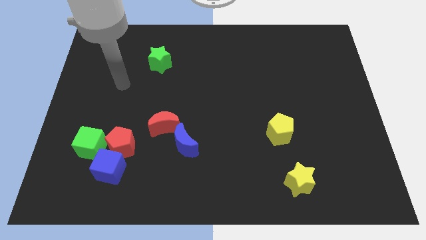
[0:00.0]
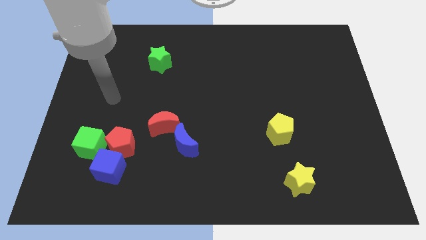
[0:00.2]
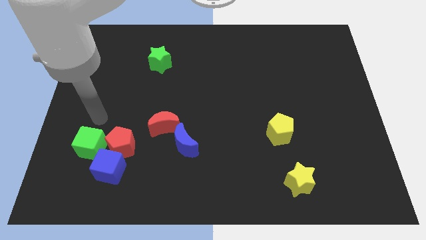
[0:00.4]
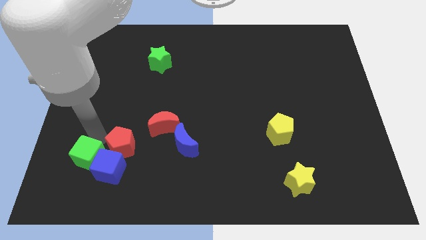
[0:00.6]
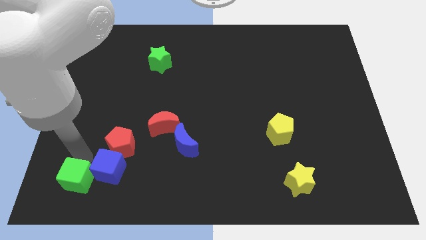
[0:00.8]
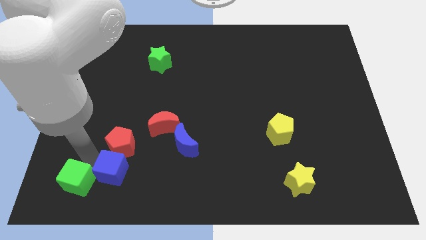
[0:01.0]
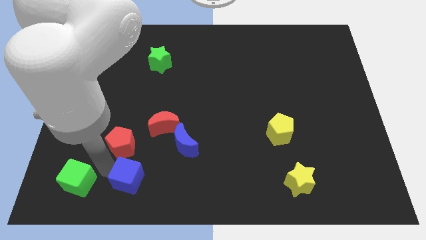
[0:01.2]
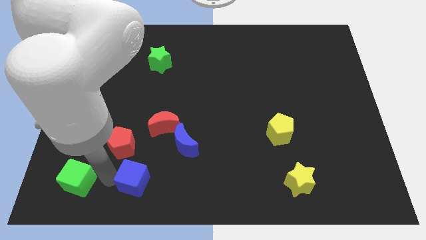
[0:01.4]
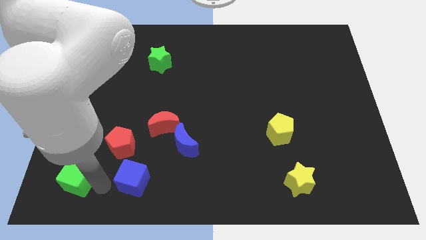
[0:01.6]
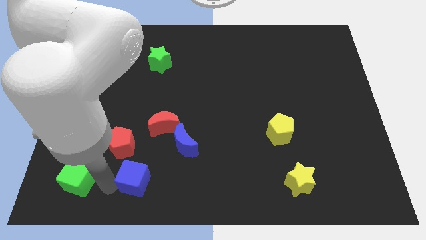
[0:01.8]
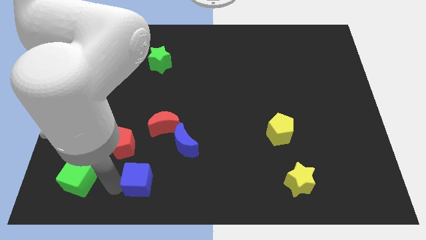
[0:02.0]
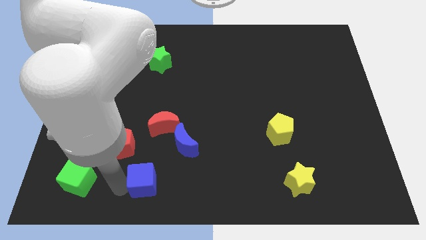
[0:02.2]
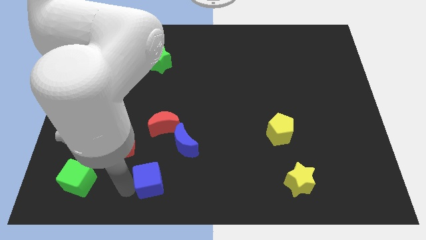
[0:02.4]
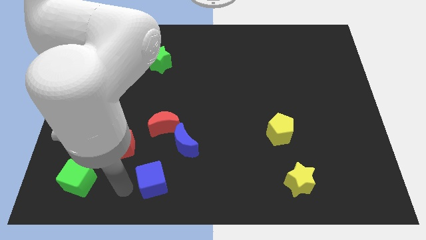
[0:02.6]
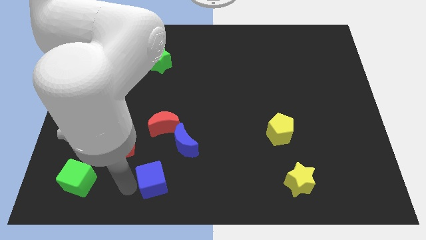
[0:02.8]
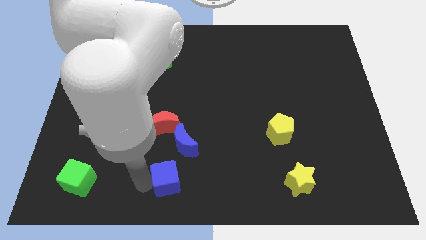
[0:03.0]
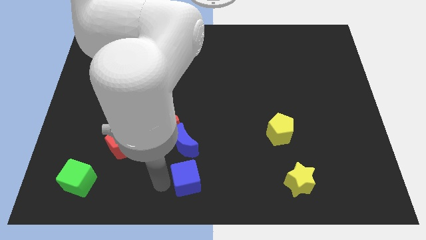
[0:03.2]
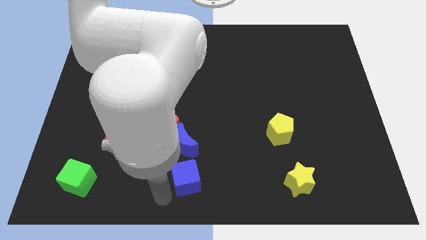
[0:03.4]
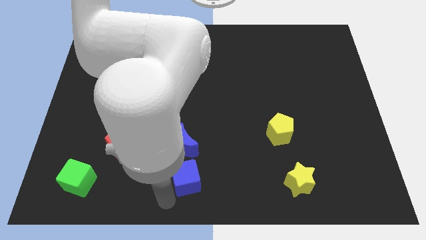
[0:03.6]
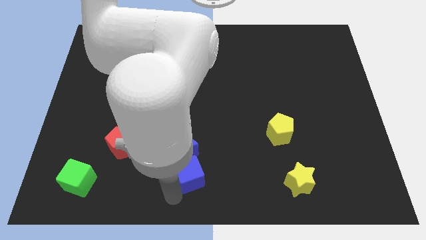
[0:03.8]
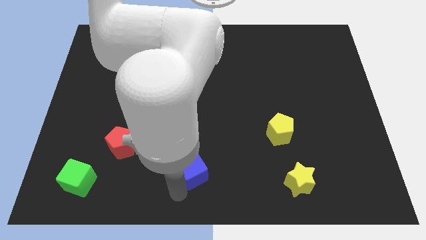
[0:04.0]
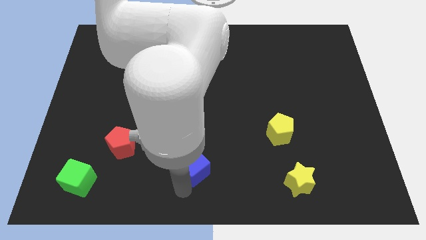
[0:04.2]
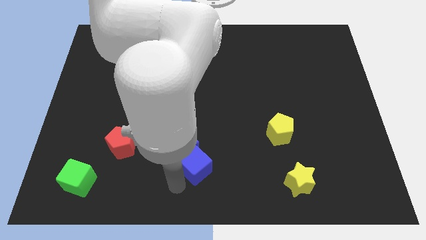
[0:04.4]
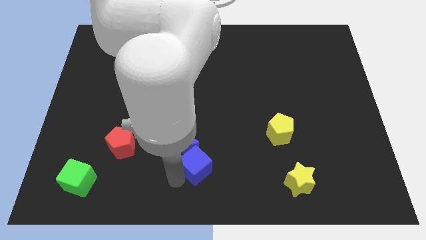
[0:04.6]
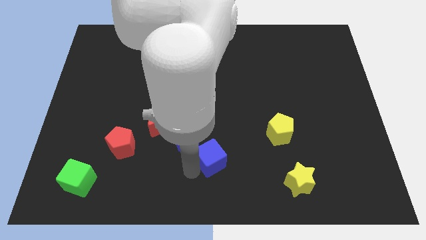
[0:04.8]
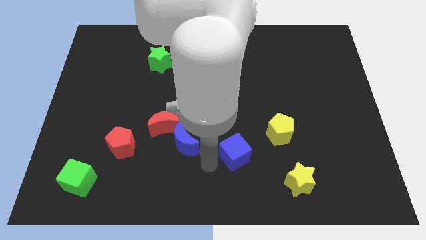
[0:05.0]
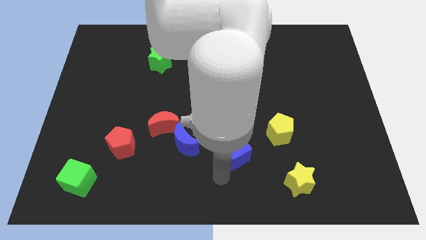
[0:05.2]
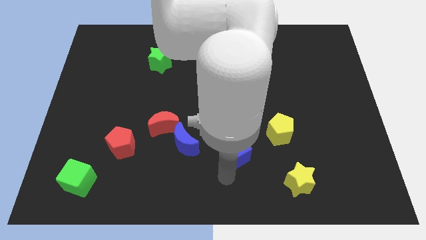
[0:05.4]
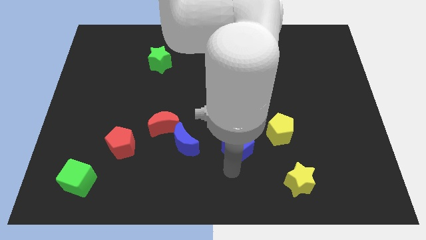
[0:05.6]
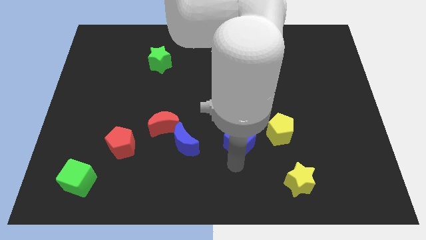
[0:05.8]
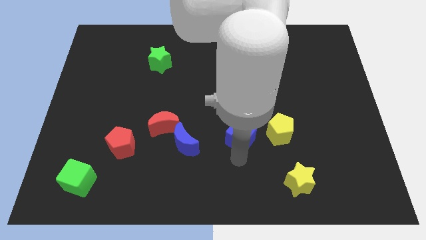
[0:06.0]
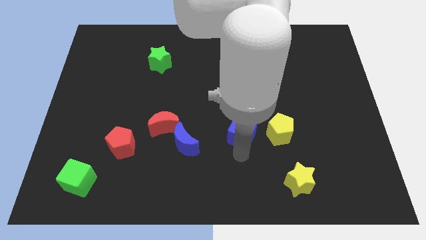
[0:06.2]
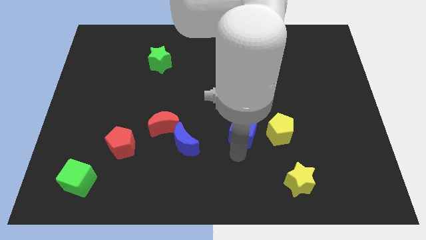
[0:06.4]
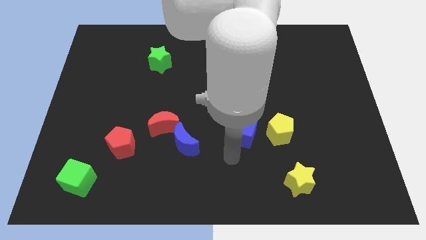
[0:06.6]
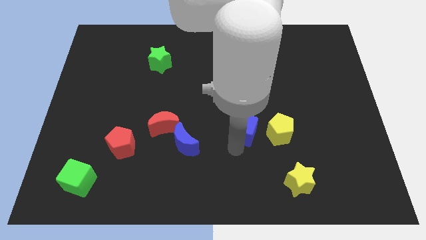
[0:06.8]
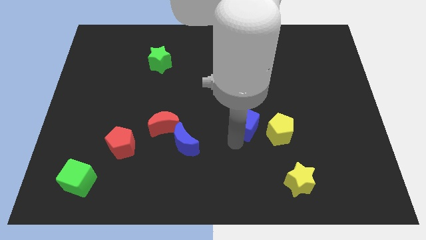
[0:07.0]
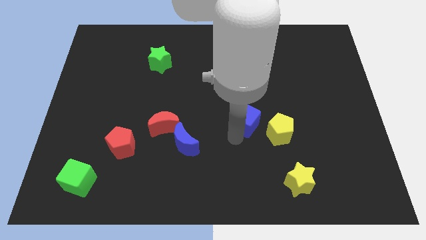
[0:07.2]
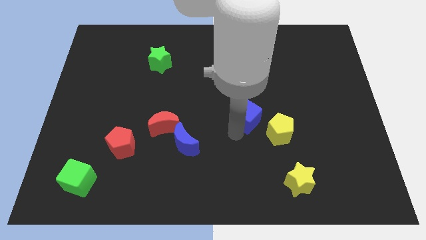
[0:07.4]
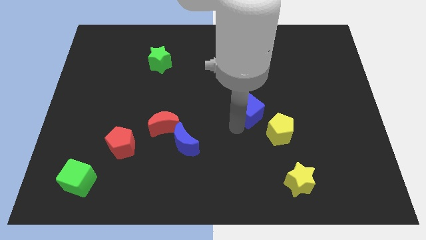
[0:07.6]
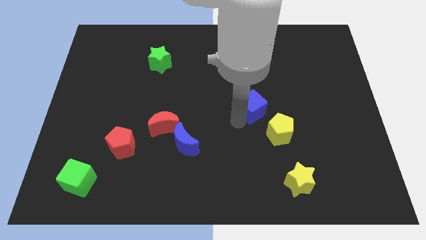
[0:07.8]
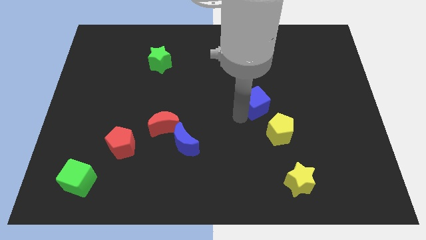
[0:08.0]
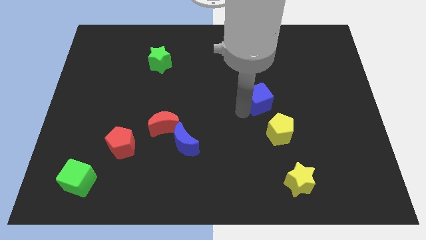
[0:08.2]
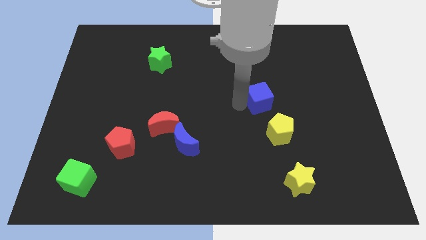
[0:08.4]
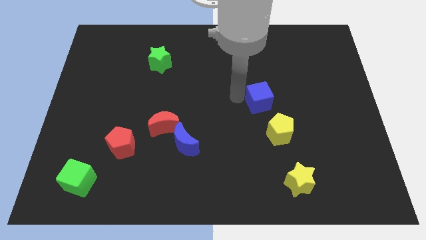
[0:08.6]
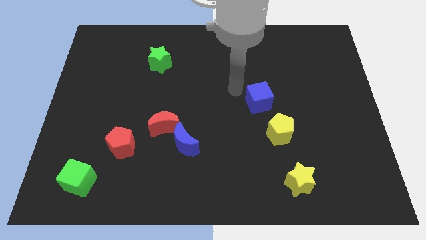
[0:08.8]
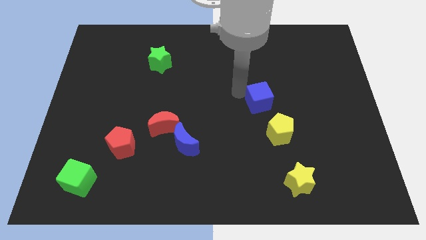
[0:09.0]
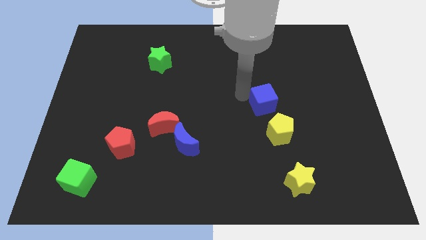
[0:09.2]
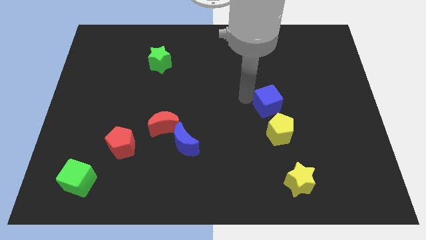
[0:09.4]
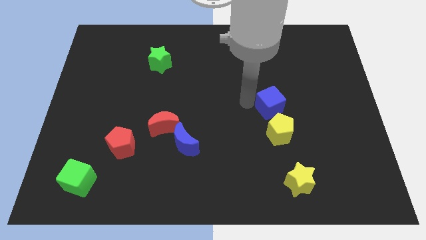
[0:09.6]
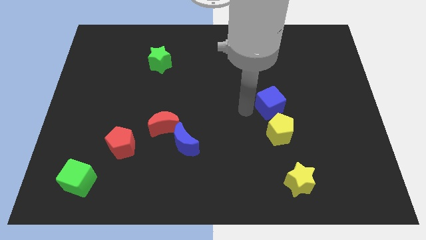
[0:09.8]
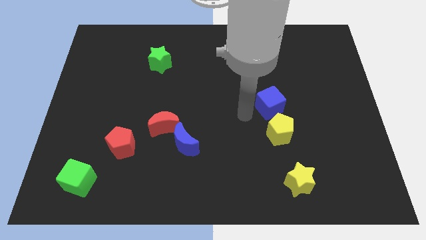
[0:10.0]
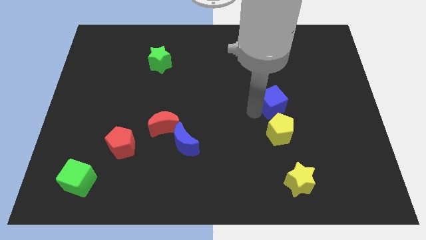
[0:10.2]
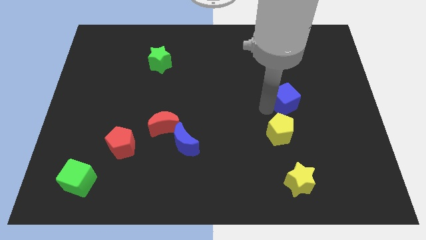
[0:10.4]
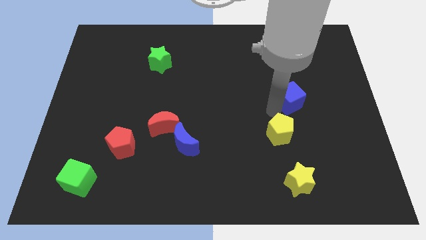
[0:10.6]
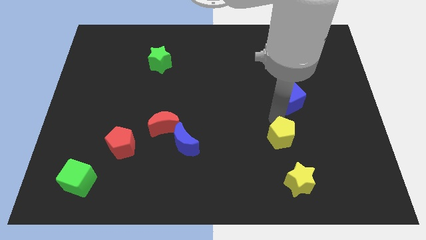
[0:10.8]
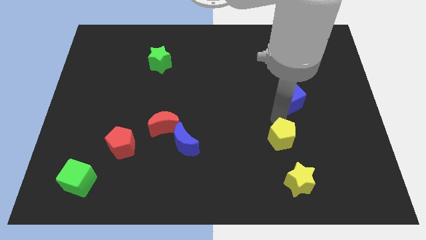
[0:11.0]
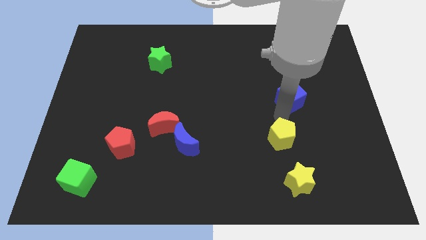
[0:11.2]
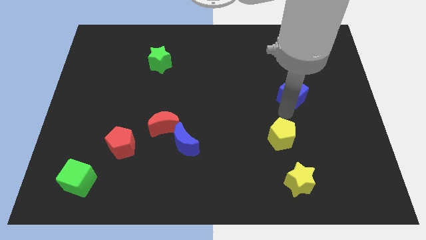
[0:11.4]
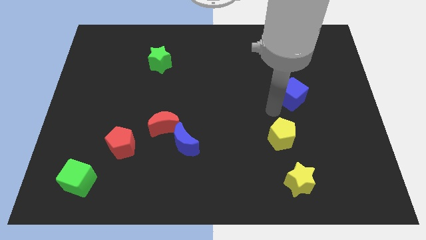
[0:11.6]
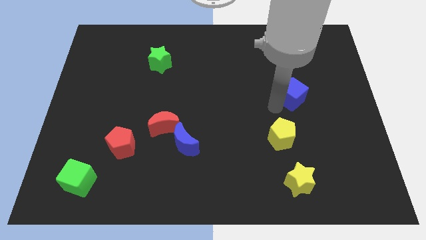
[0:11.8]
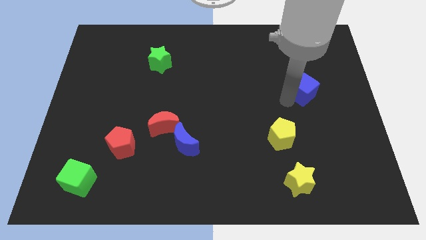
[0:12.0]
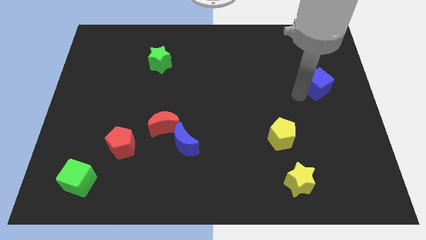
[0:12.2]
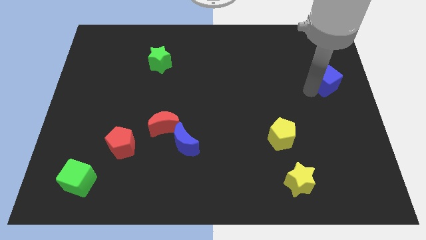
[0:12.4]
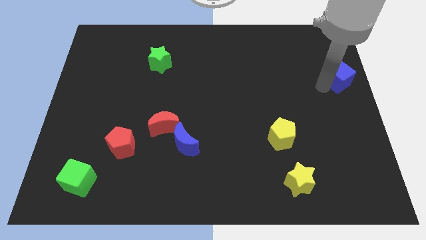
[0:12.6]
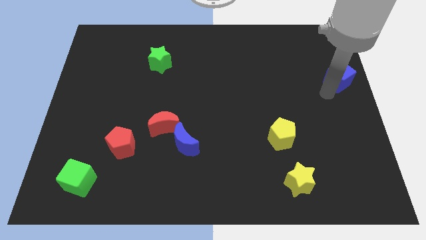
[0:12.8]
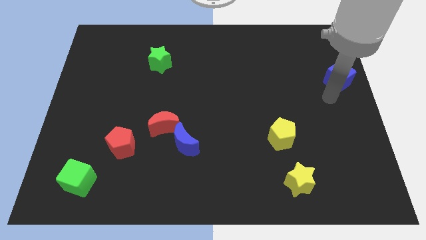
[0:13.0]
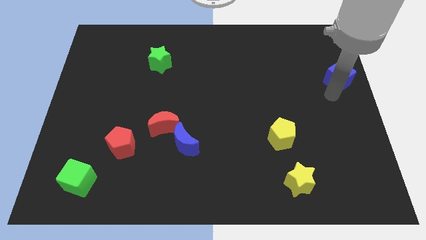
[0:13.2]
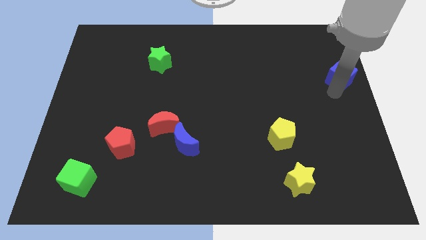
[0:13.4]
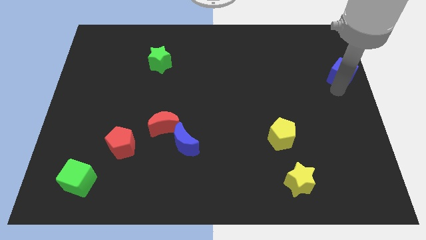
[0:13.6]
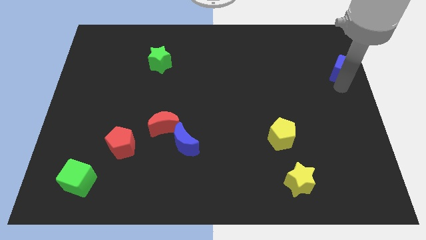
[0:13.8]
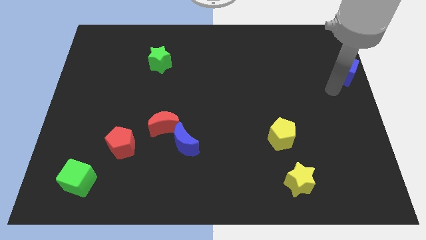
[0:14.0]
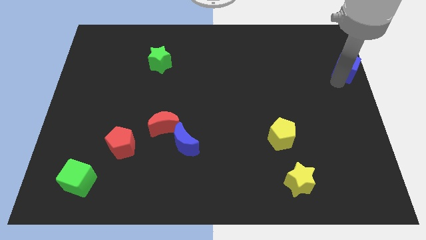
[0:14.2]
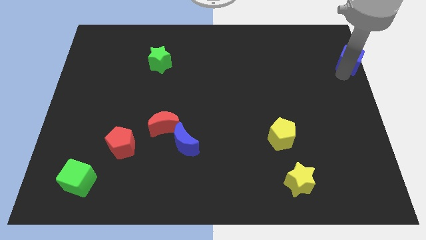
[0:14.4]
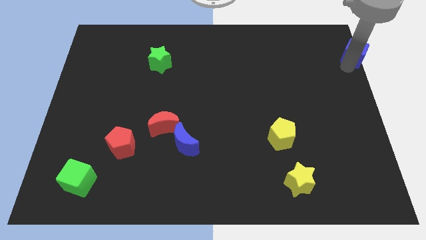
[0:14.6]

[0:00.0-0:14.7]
put the blue cube to the top right of the board
